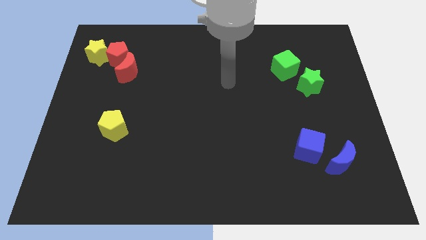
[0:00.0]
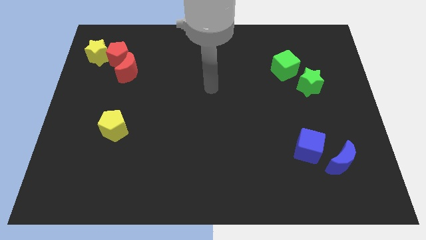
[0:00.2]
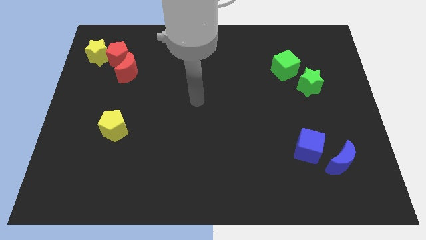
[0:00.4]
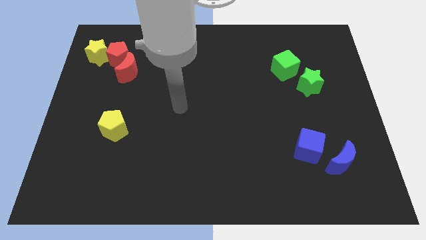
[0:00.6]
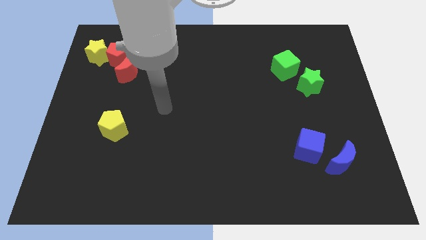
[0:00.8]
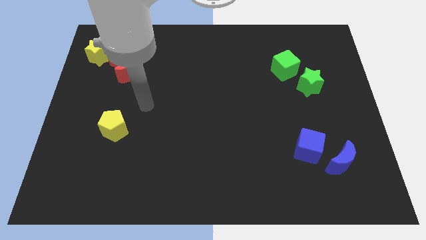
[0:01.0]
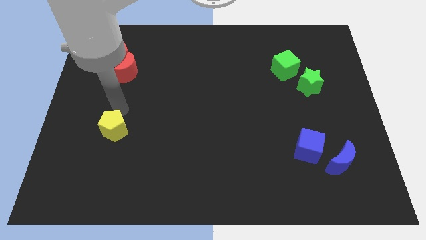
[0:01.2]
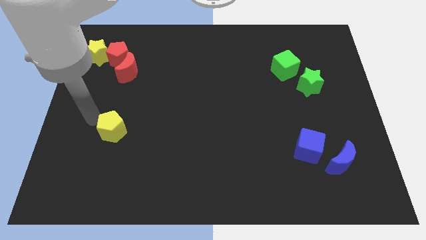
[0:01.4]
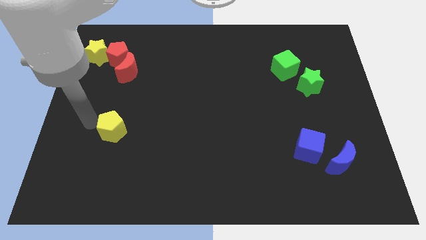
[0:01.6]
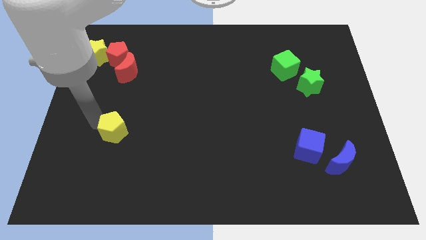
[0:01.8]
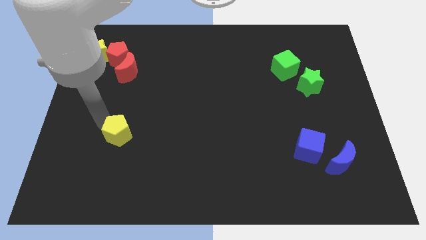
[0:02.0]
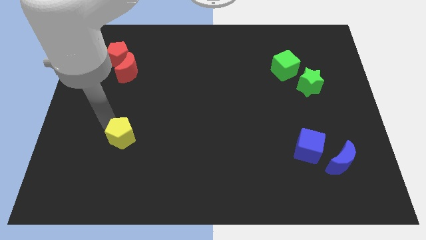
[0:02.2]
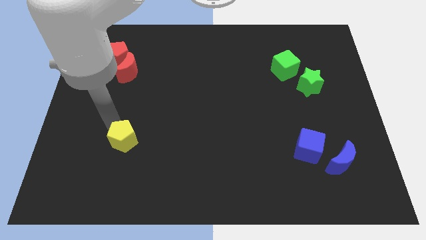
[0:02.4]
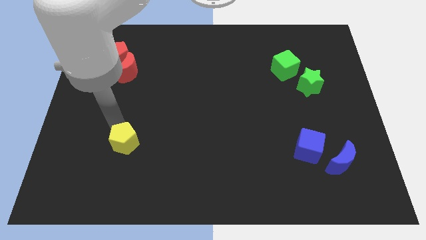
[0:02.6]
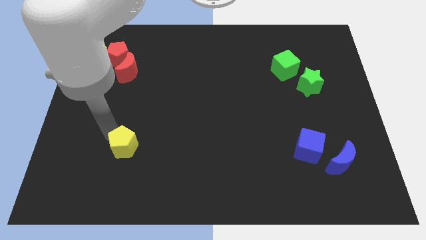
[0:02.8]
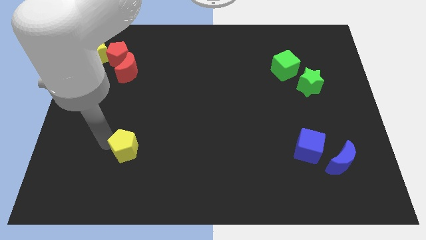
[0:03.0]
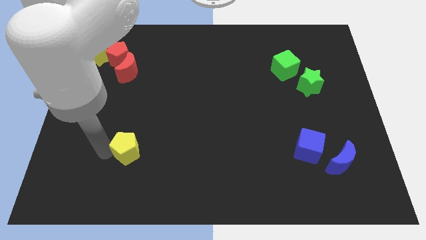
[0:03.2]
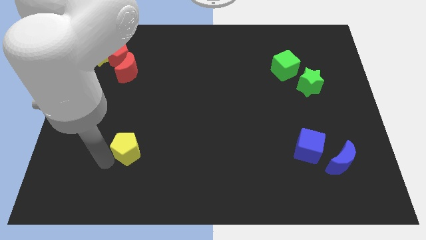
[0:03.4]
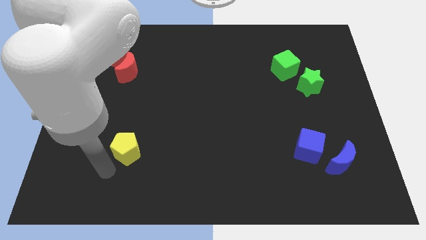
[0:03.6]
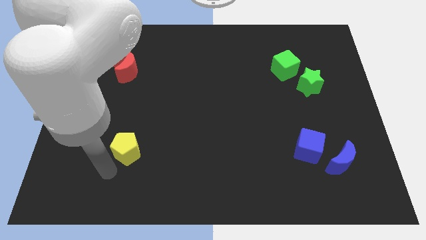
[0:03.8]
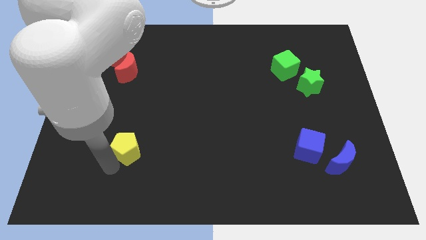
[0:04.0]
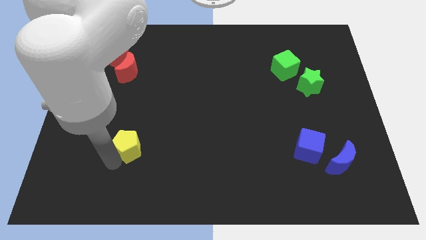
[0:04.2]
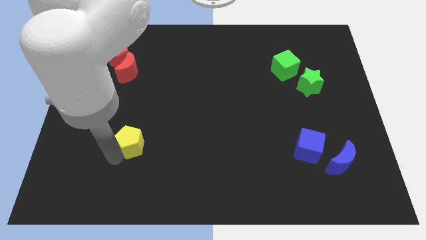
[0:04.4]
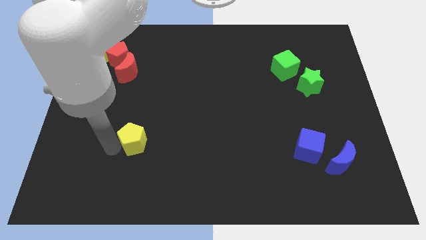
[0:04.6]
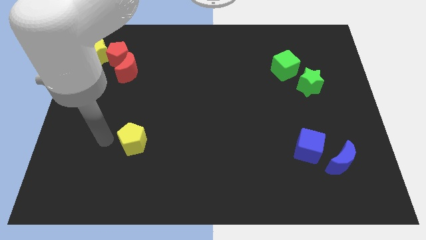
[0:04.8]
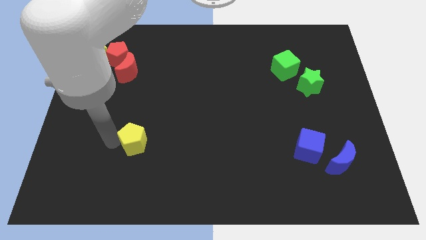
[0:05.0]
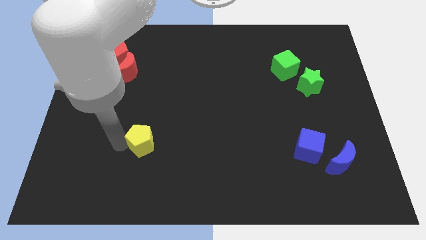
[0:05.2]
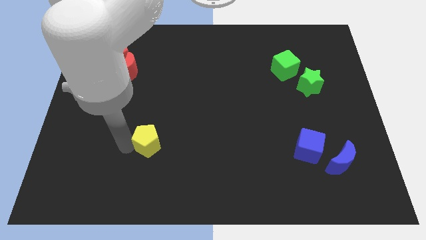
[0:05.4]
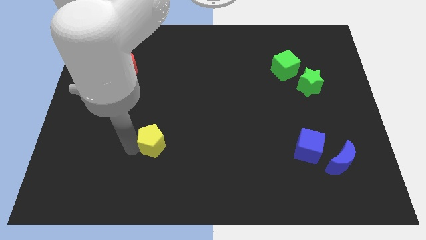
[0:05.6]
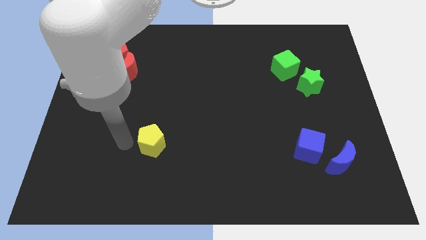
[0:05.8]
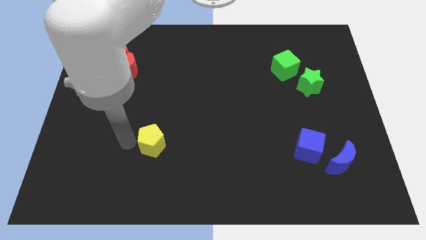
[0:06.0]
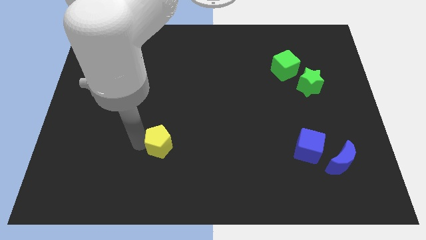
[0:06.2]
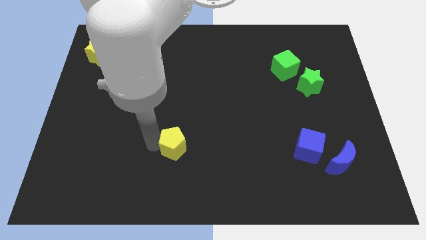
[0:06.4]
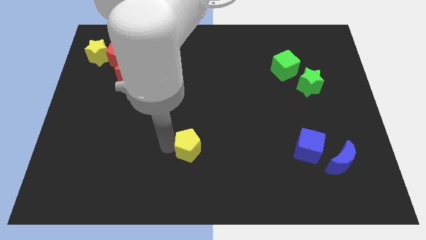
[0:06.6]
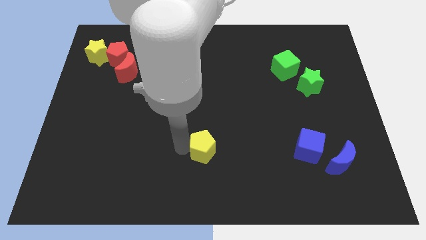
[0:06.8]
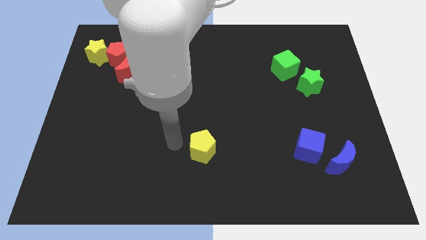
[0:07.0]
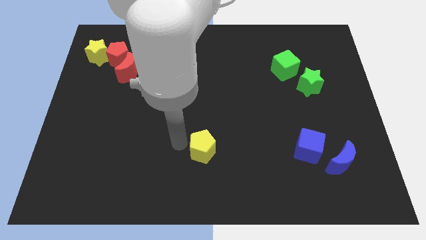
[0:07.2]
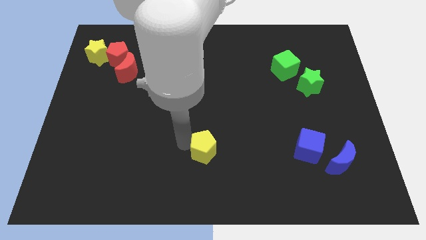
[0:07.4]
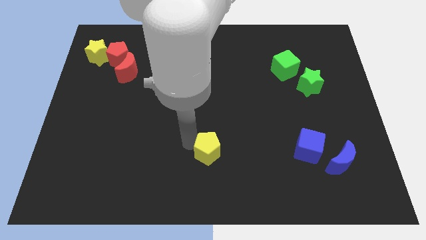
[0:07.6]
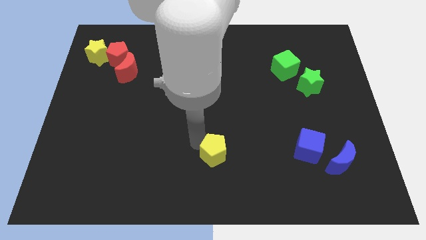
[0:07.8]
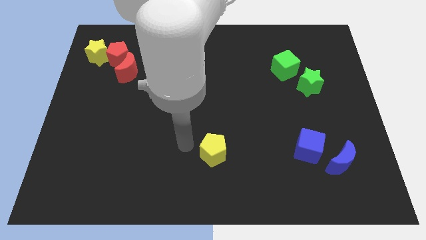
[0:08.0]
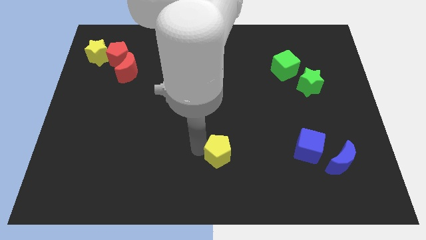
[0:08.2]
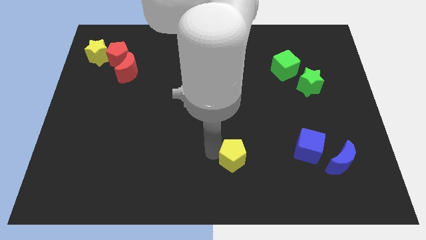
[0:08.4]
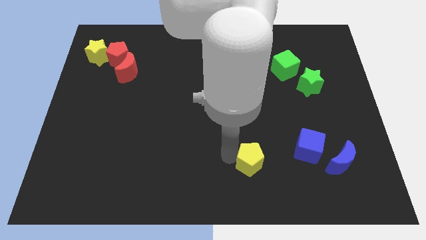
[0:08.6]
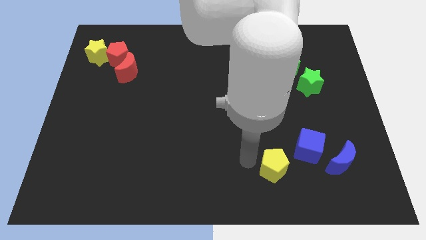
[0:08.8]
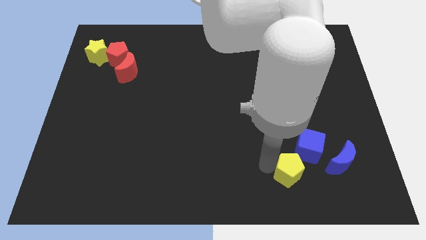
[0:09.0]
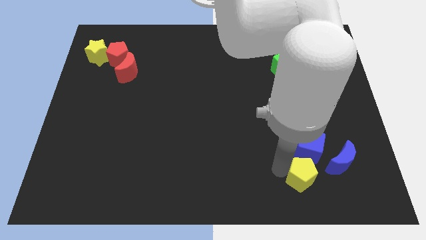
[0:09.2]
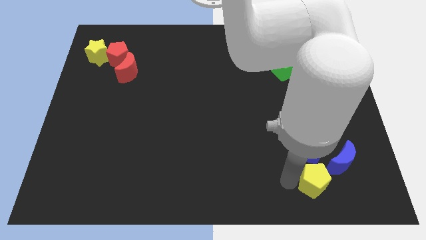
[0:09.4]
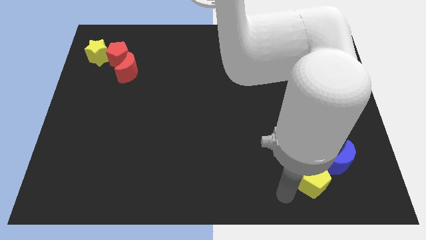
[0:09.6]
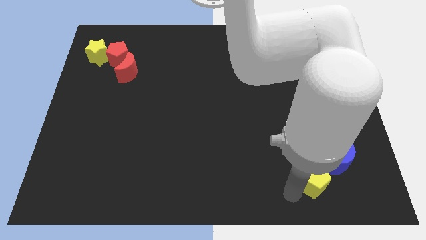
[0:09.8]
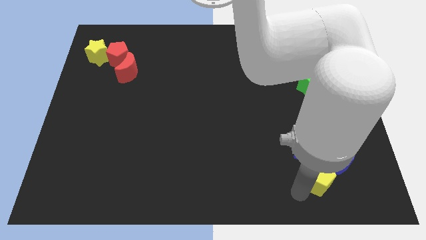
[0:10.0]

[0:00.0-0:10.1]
push the yellow pentagon to the bottom right side of the blue cube

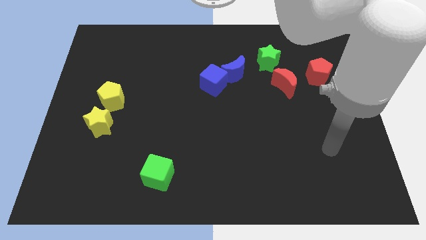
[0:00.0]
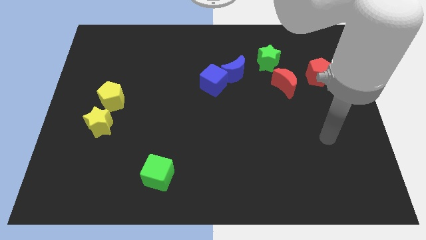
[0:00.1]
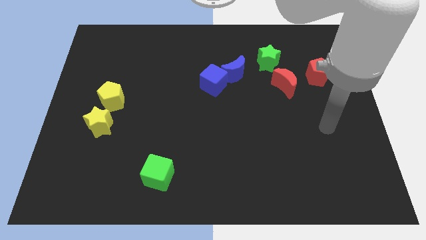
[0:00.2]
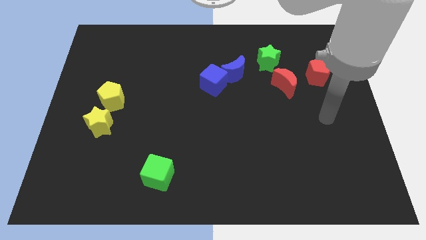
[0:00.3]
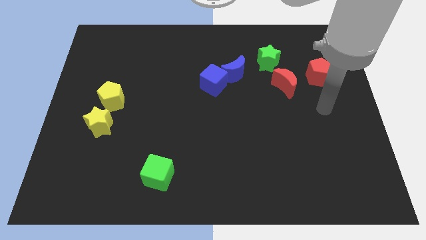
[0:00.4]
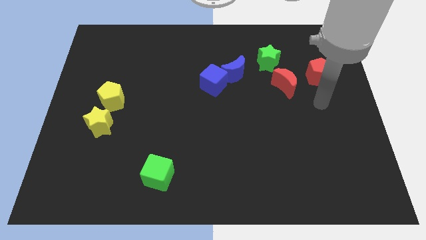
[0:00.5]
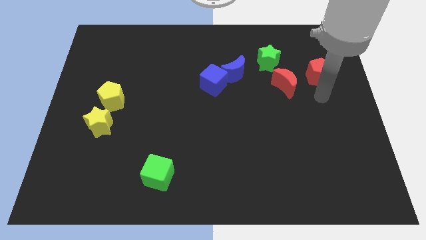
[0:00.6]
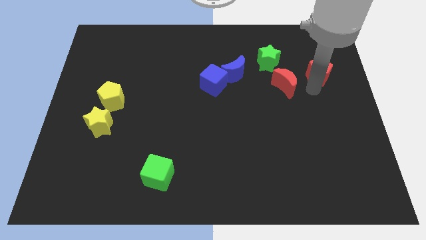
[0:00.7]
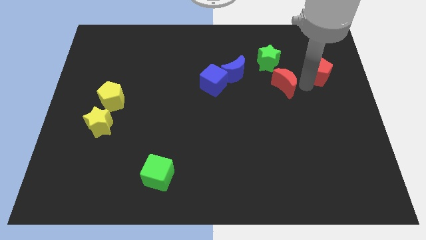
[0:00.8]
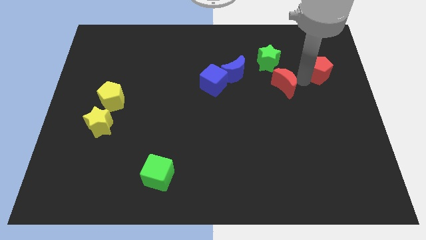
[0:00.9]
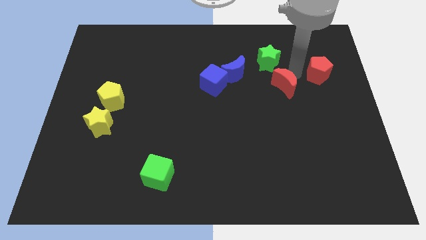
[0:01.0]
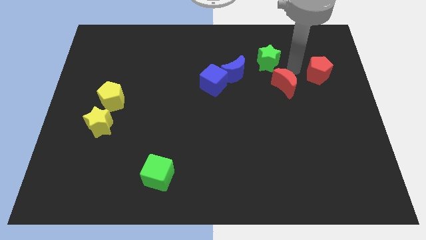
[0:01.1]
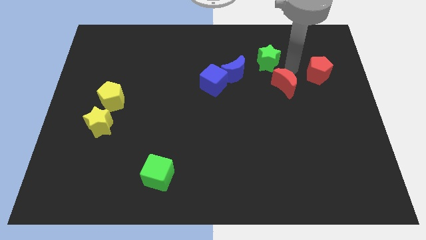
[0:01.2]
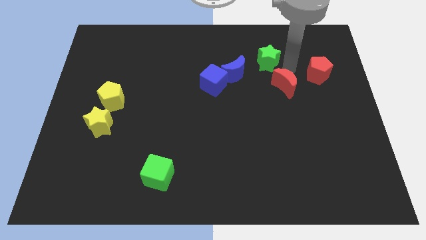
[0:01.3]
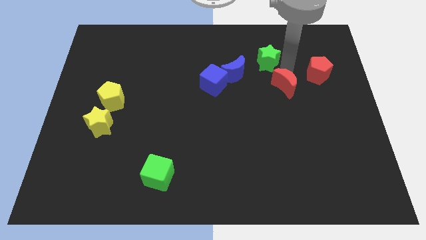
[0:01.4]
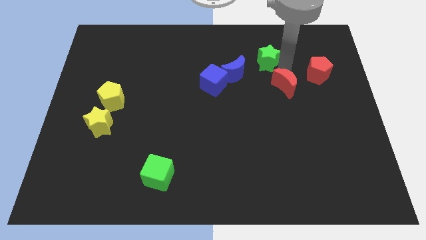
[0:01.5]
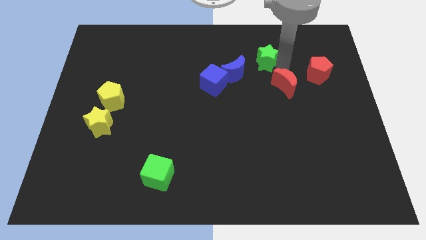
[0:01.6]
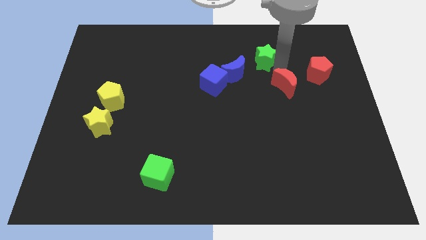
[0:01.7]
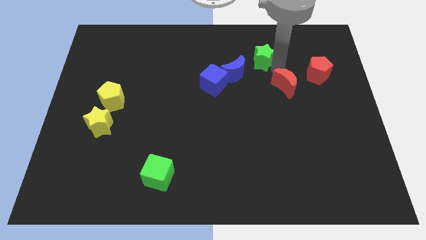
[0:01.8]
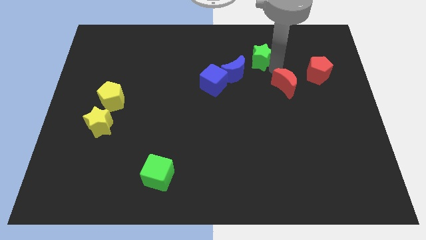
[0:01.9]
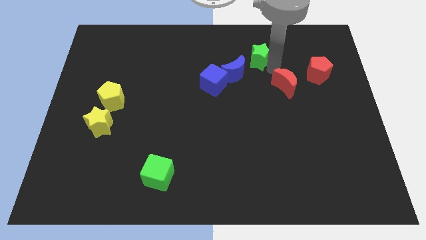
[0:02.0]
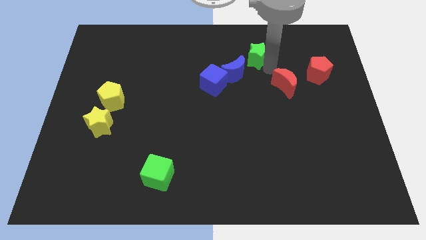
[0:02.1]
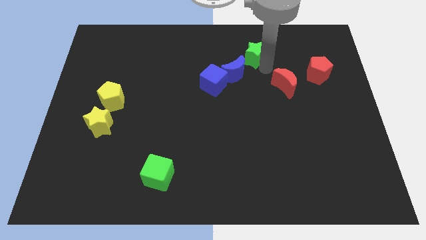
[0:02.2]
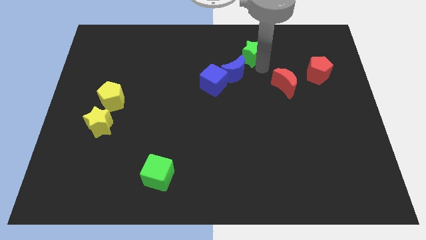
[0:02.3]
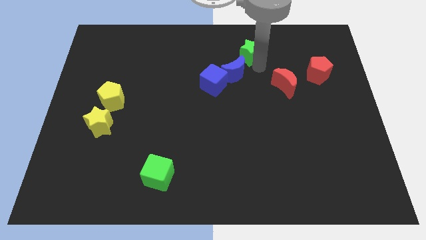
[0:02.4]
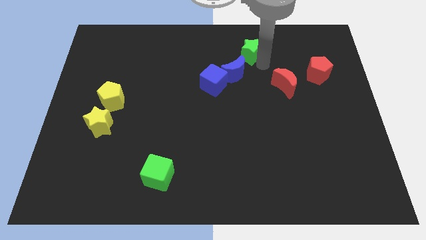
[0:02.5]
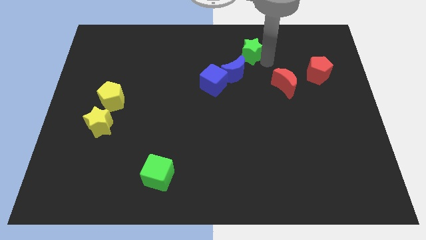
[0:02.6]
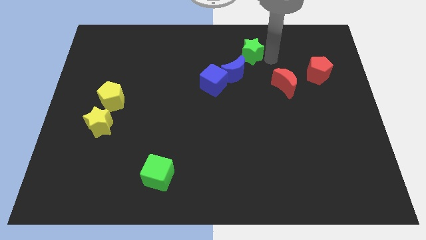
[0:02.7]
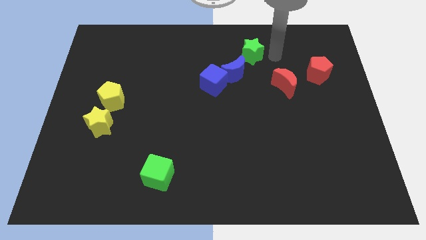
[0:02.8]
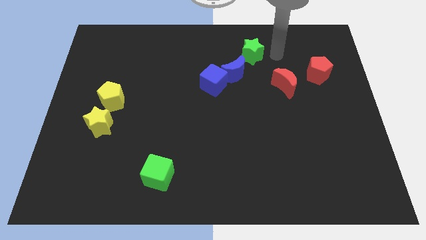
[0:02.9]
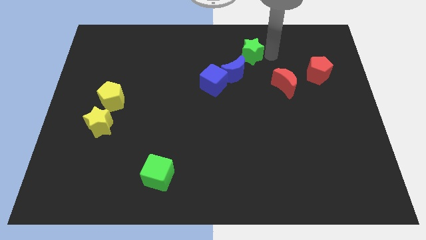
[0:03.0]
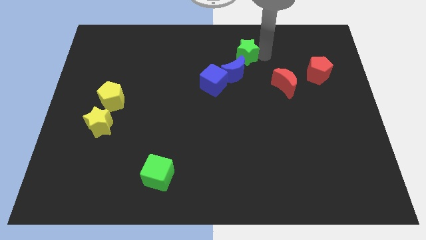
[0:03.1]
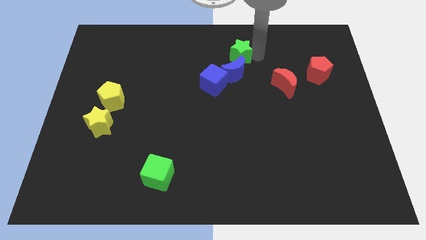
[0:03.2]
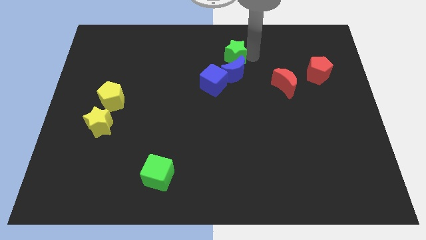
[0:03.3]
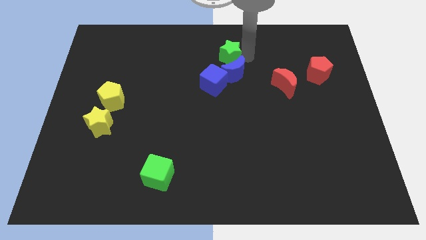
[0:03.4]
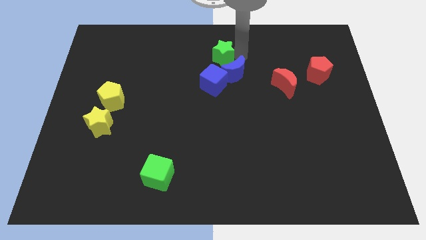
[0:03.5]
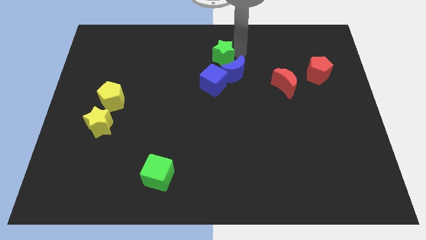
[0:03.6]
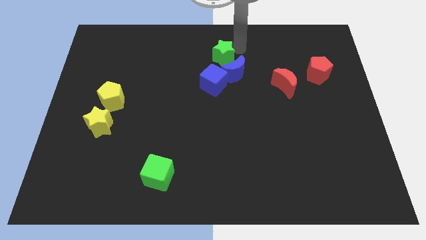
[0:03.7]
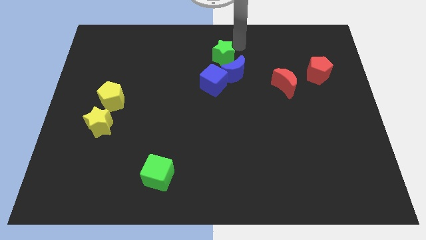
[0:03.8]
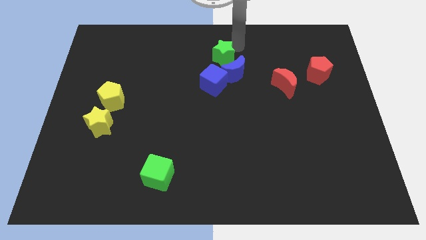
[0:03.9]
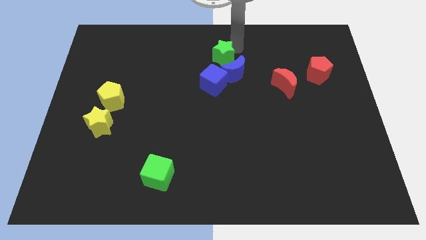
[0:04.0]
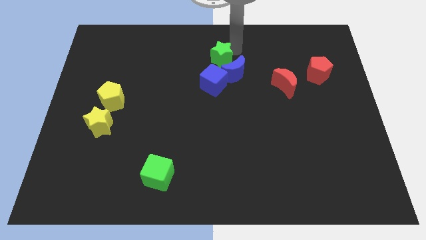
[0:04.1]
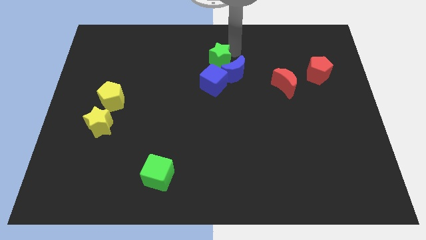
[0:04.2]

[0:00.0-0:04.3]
slide the green star left of the blue moon
